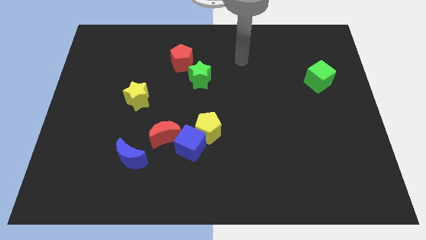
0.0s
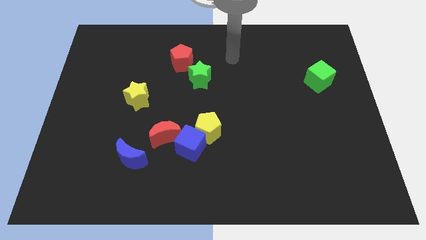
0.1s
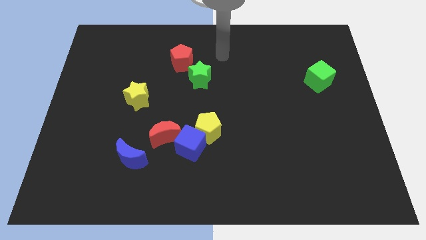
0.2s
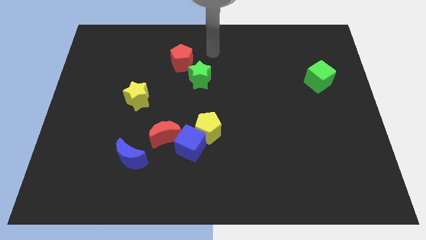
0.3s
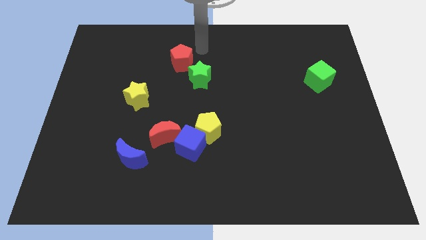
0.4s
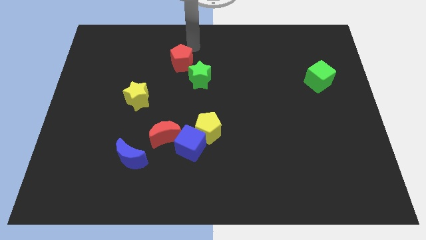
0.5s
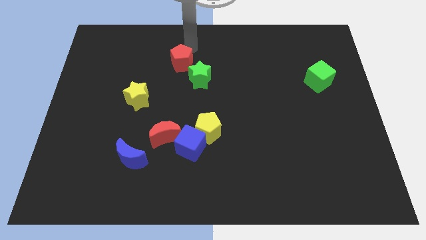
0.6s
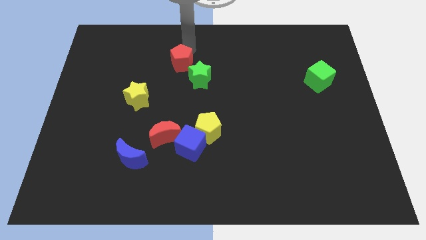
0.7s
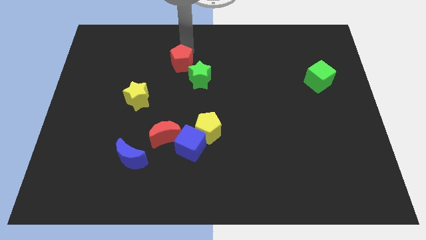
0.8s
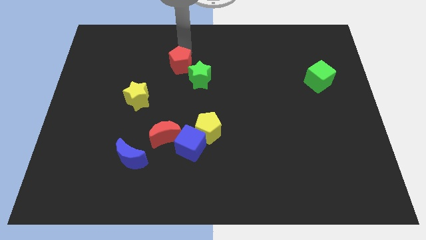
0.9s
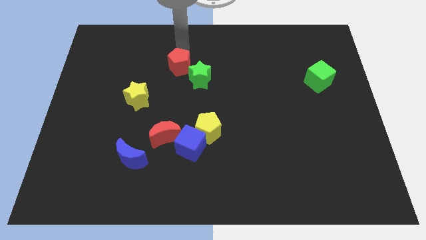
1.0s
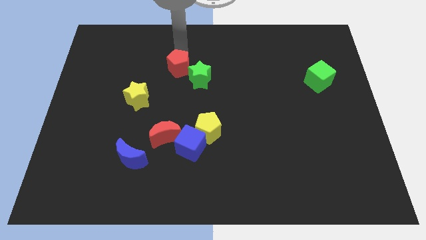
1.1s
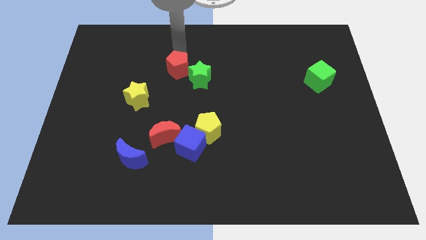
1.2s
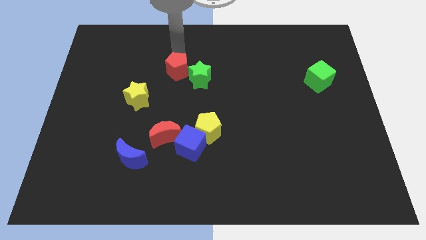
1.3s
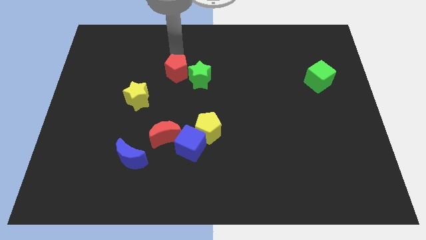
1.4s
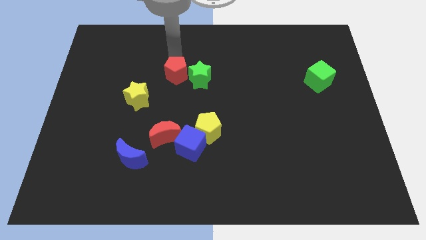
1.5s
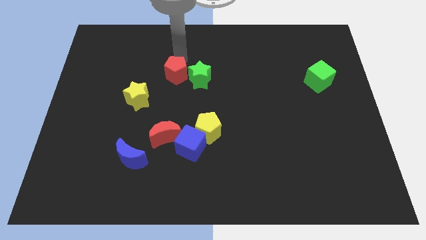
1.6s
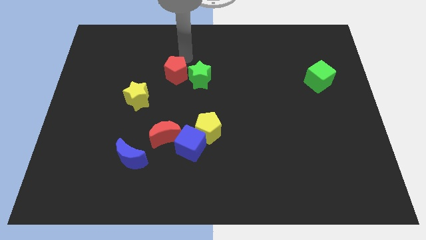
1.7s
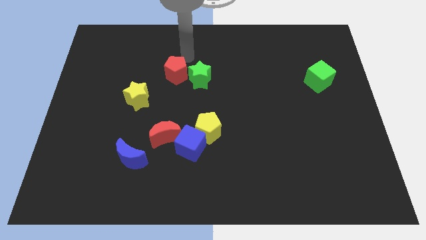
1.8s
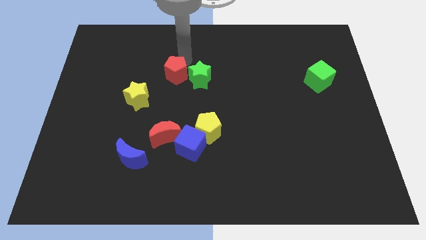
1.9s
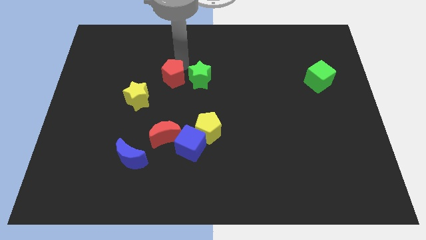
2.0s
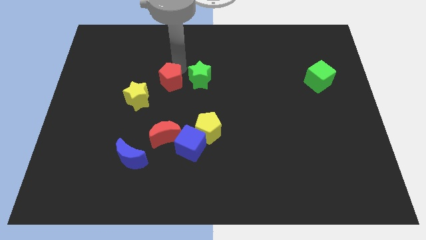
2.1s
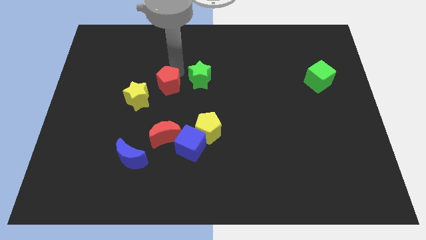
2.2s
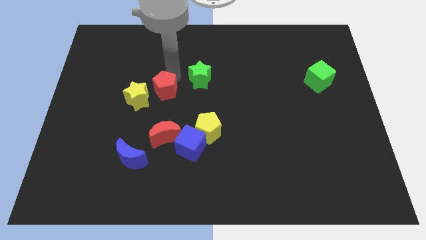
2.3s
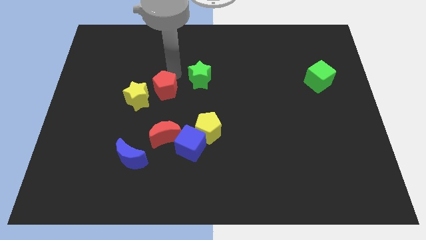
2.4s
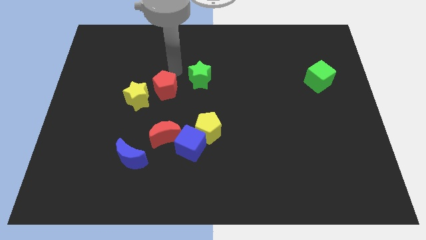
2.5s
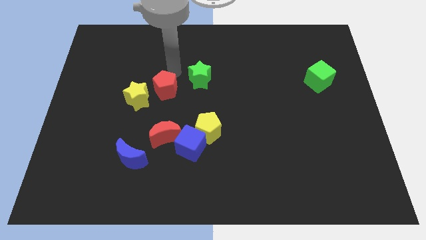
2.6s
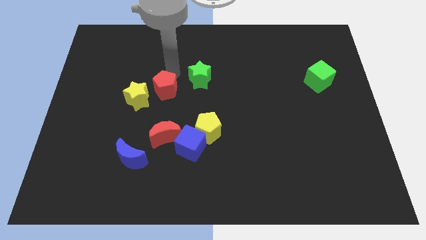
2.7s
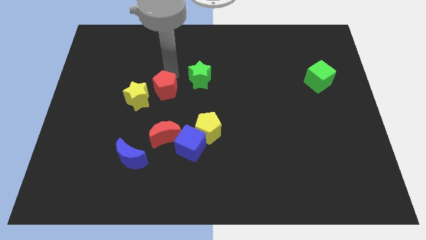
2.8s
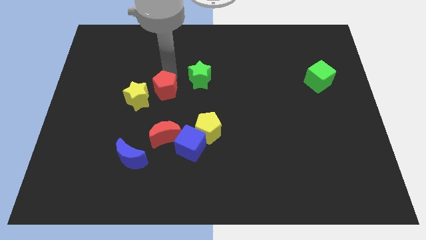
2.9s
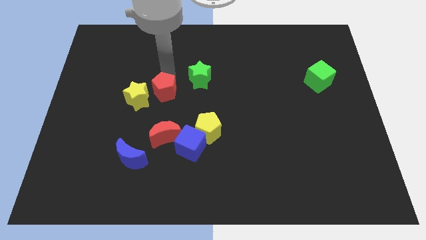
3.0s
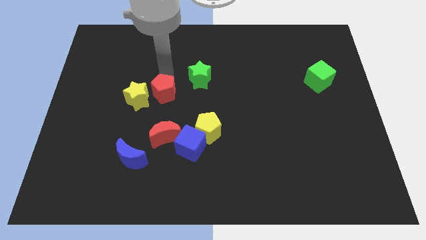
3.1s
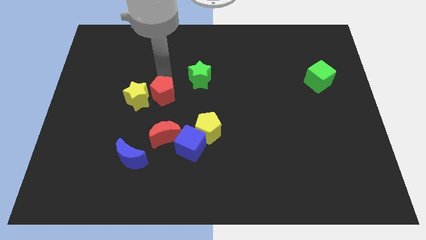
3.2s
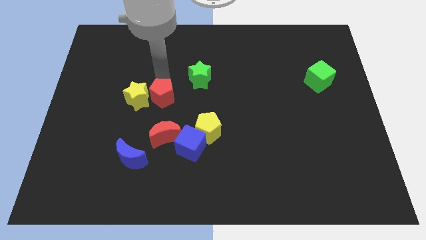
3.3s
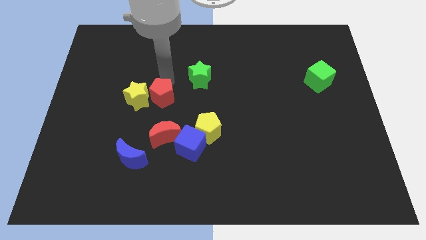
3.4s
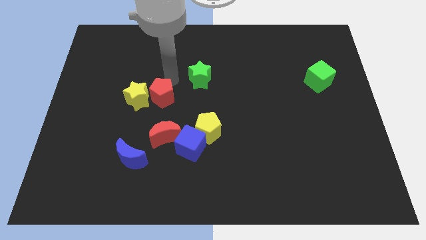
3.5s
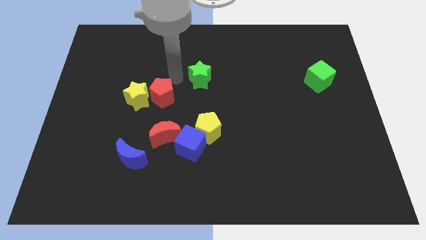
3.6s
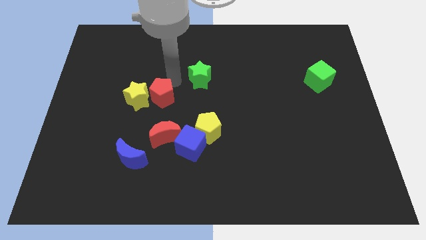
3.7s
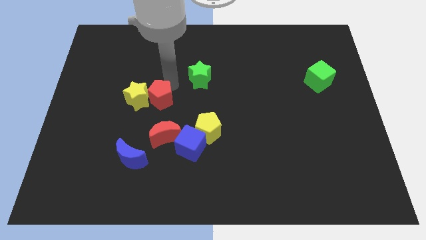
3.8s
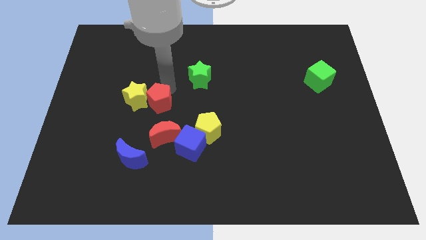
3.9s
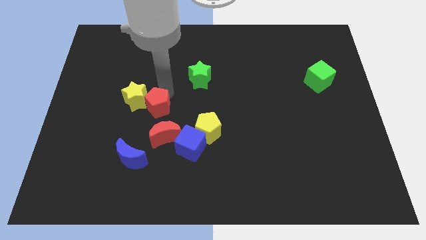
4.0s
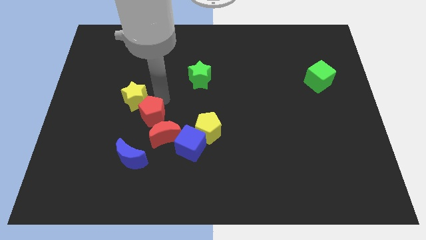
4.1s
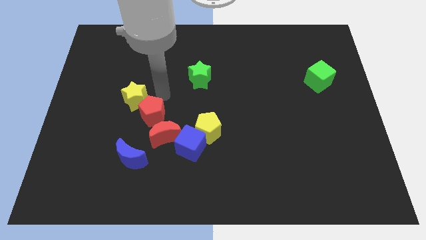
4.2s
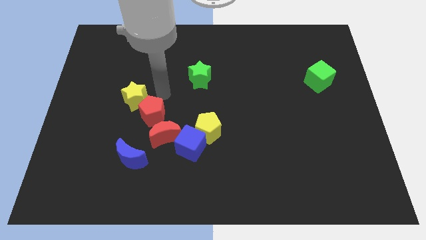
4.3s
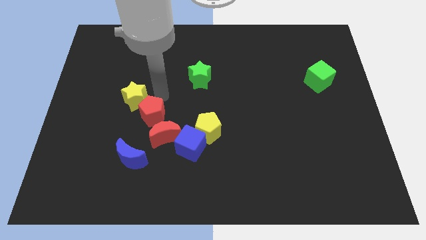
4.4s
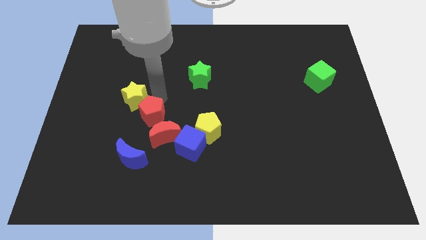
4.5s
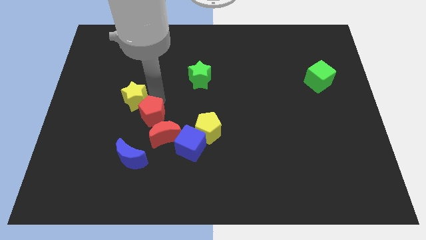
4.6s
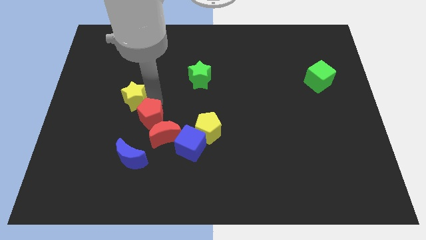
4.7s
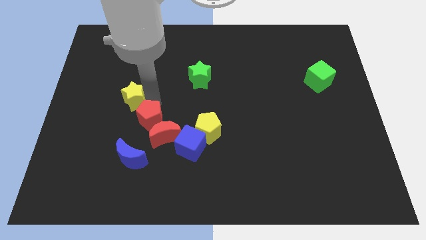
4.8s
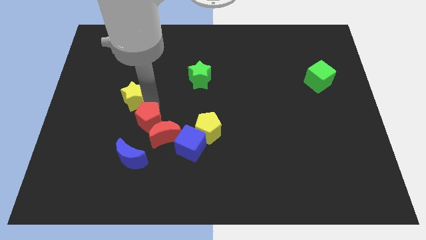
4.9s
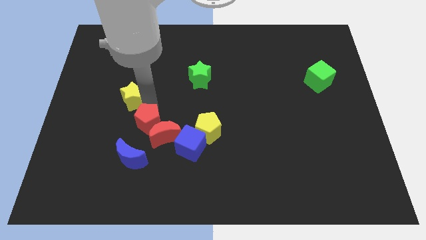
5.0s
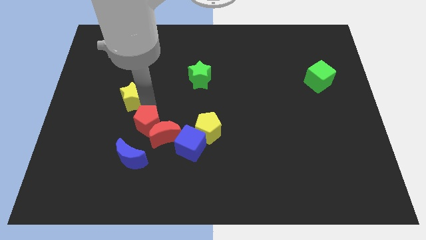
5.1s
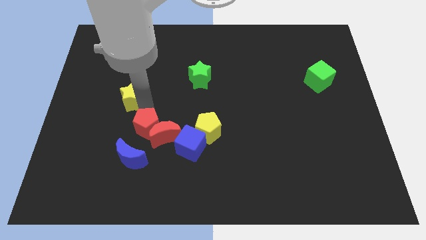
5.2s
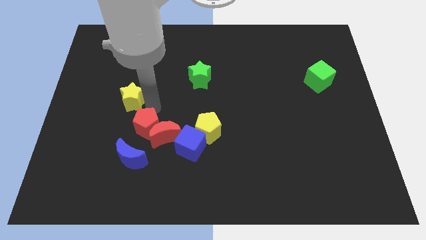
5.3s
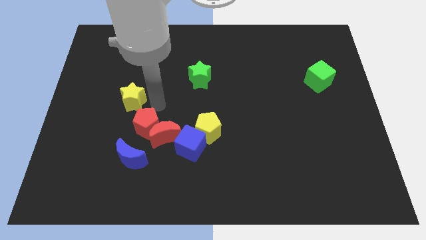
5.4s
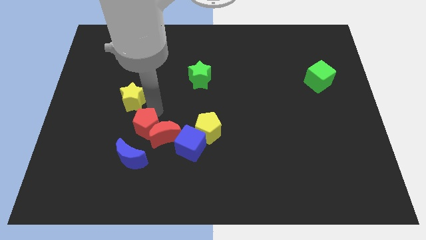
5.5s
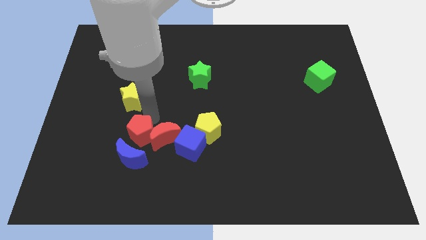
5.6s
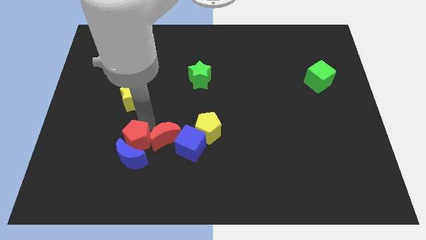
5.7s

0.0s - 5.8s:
put the red pentagon close to the blue moon

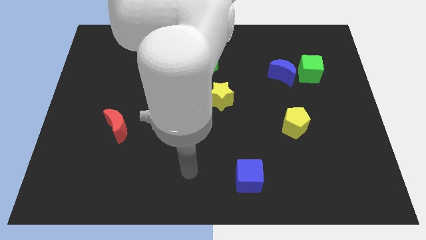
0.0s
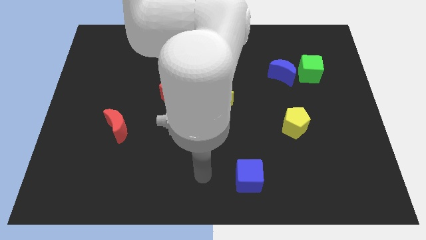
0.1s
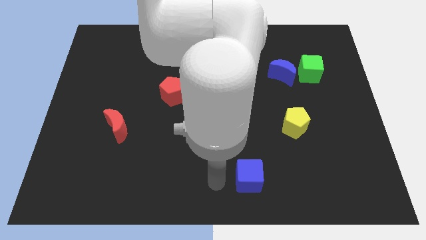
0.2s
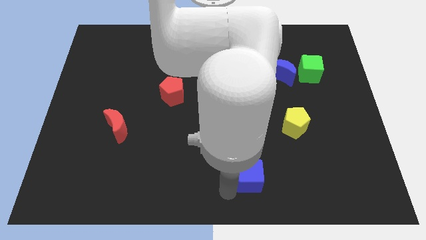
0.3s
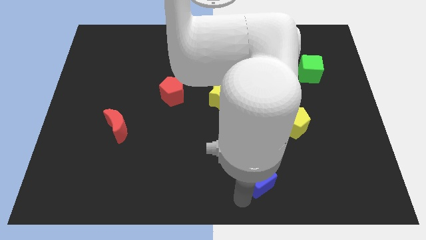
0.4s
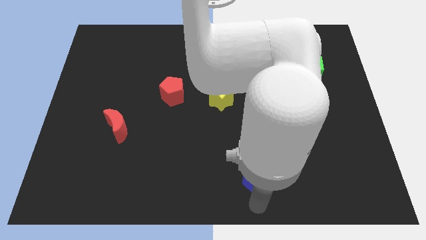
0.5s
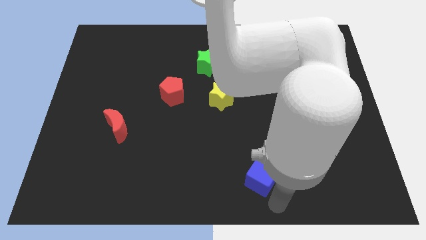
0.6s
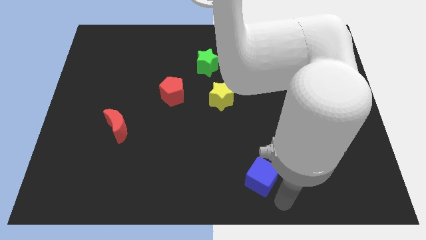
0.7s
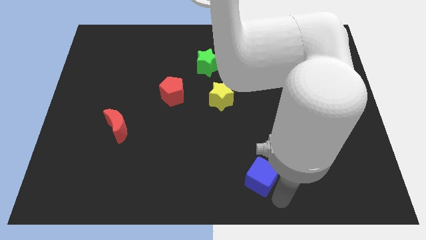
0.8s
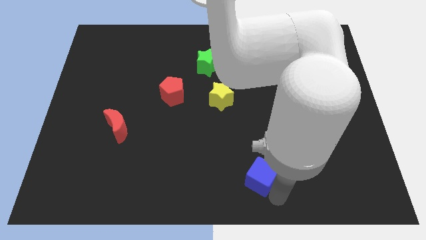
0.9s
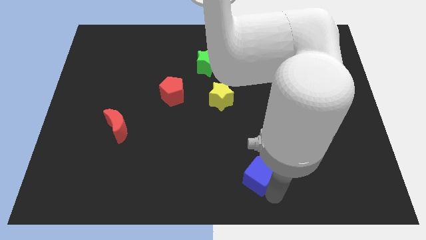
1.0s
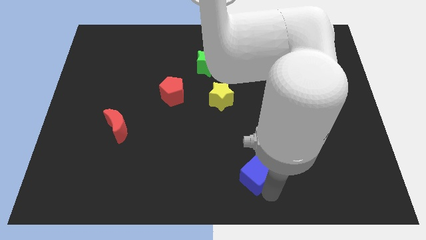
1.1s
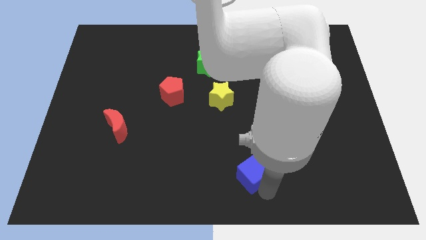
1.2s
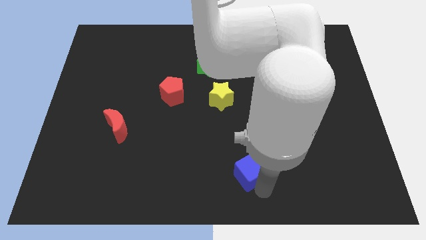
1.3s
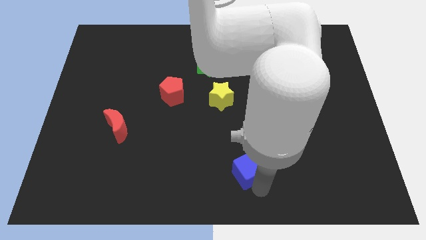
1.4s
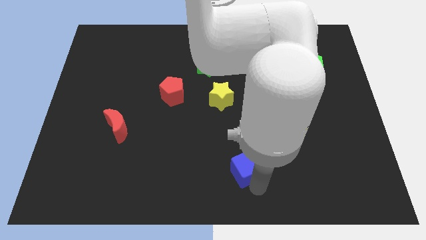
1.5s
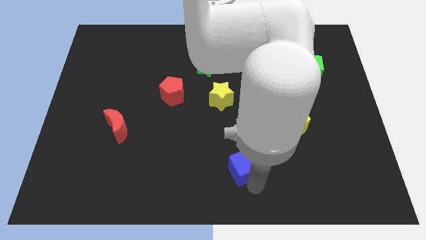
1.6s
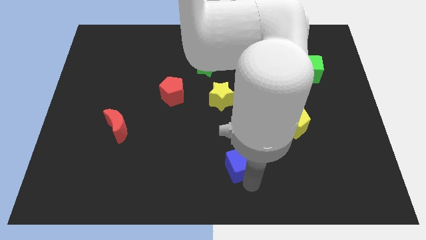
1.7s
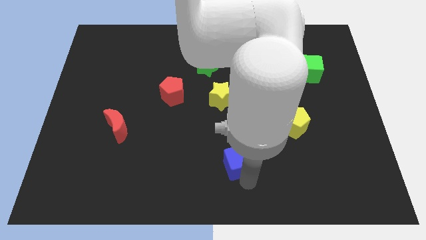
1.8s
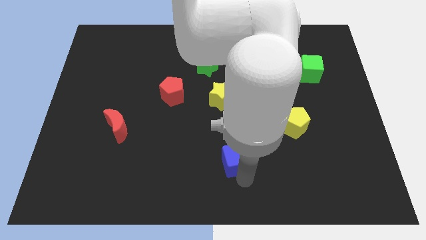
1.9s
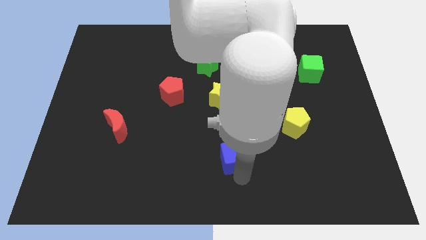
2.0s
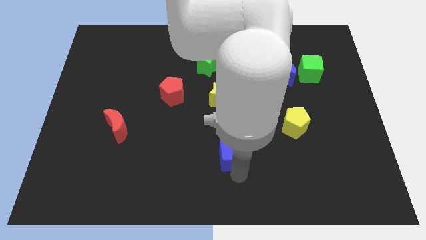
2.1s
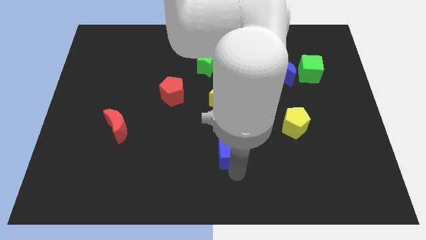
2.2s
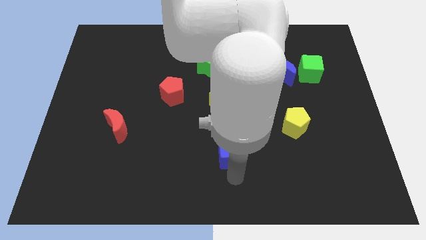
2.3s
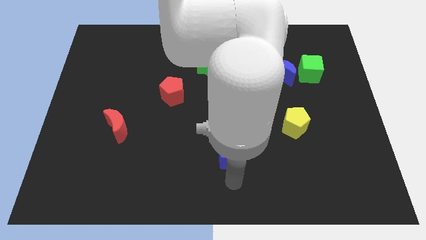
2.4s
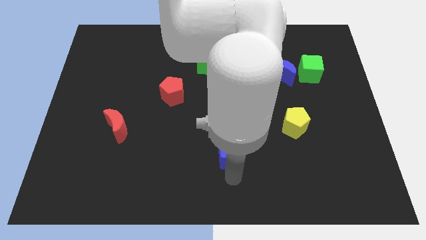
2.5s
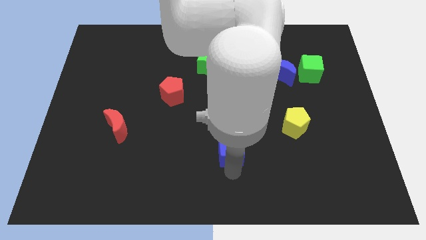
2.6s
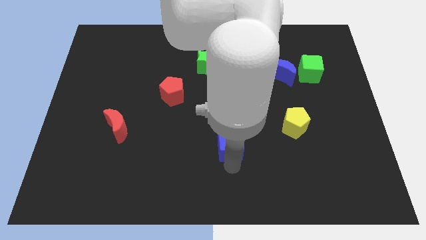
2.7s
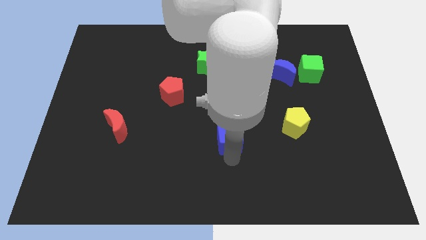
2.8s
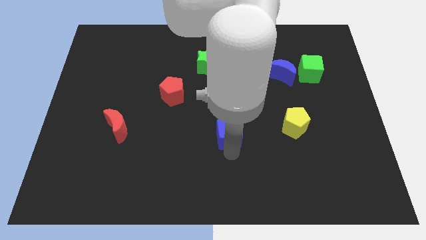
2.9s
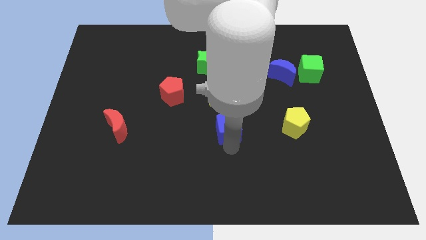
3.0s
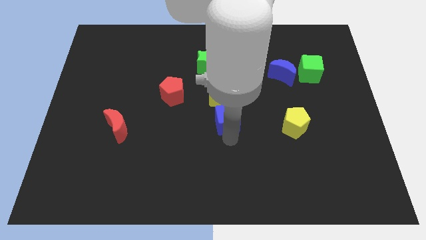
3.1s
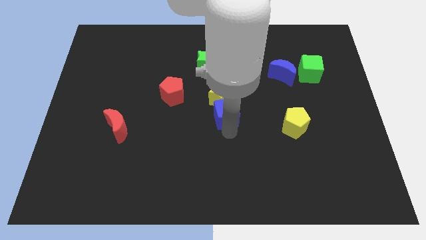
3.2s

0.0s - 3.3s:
push the blue cube to the yellow star
